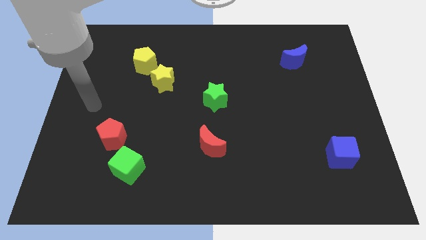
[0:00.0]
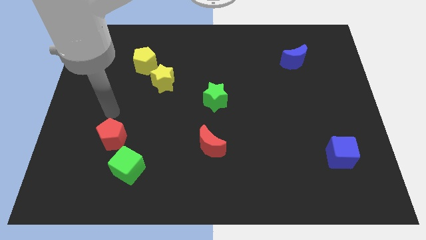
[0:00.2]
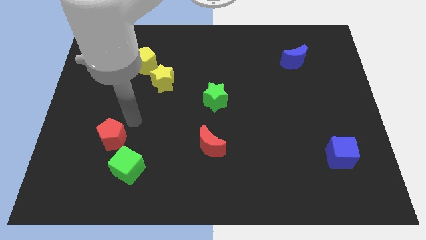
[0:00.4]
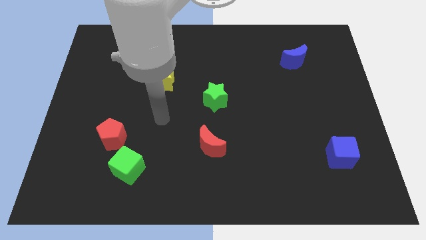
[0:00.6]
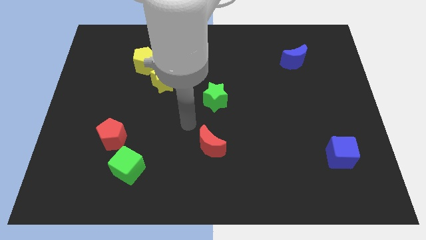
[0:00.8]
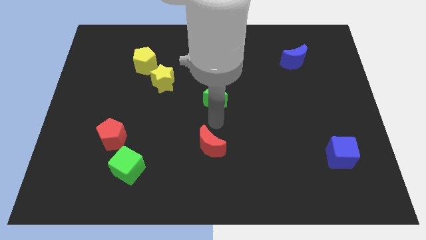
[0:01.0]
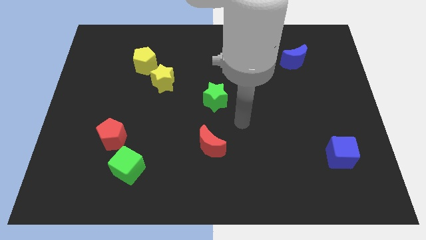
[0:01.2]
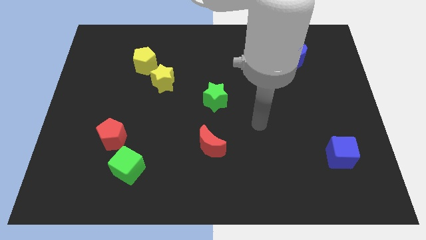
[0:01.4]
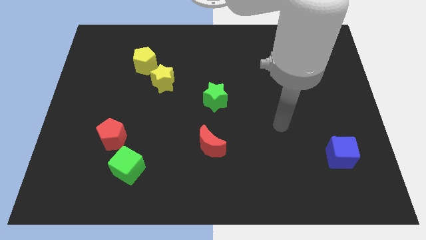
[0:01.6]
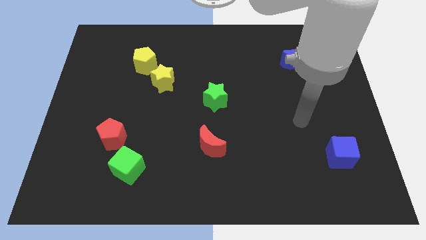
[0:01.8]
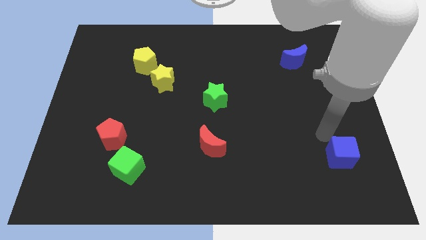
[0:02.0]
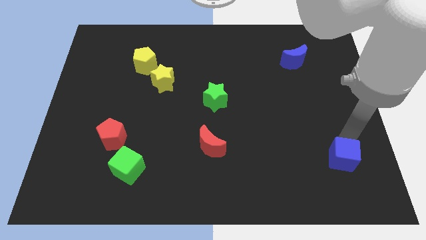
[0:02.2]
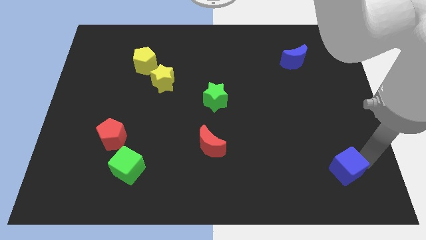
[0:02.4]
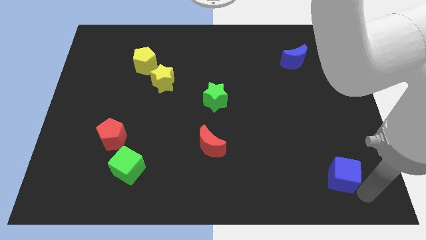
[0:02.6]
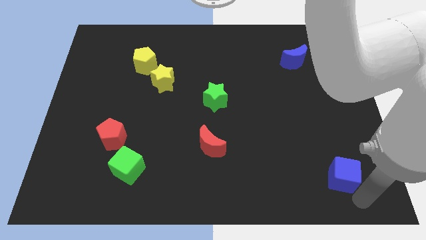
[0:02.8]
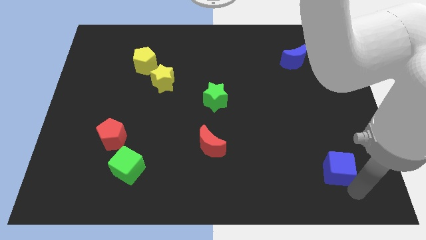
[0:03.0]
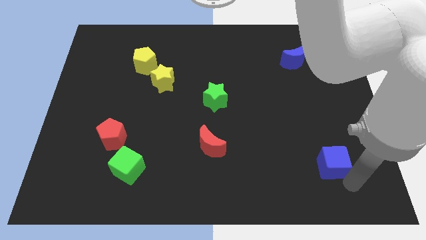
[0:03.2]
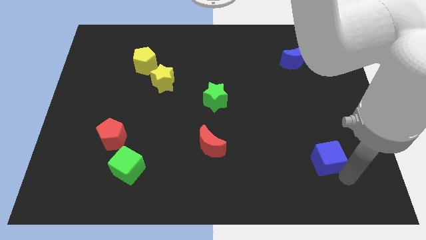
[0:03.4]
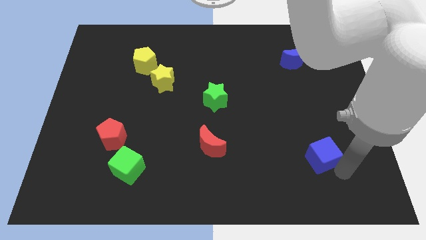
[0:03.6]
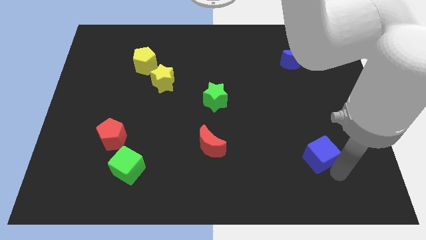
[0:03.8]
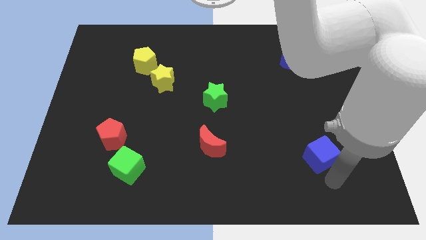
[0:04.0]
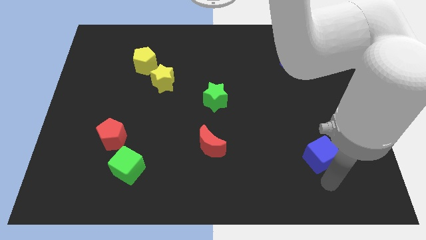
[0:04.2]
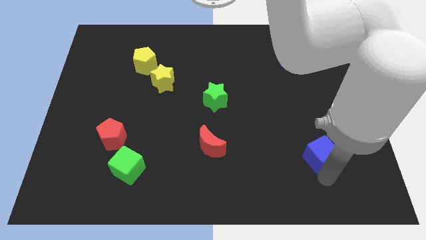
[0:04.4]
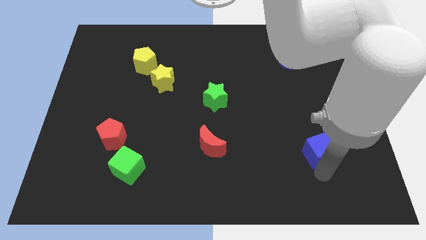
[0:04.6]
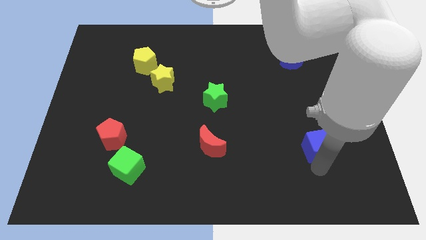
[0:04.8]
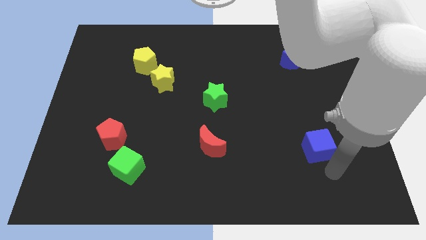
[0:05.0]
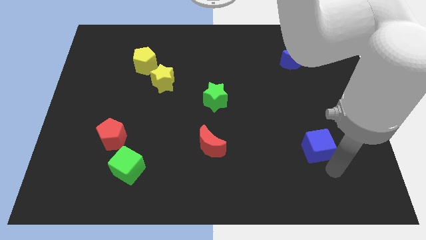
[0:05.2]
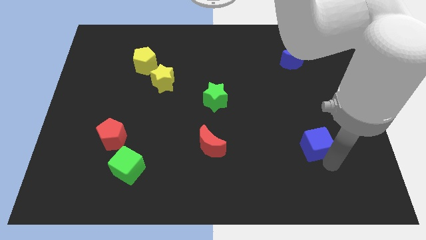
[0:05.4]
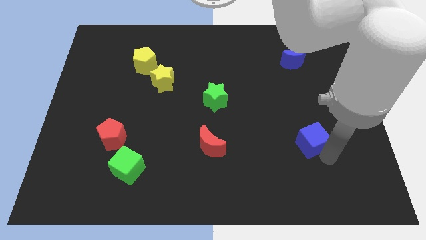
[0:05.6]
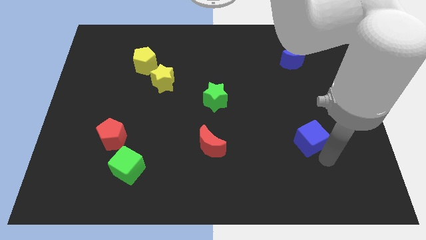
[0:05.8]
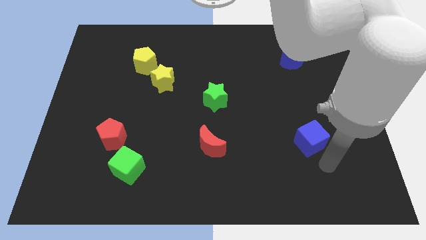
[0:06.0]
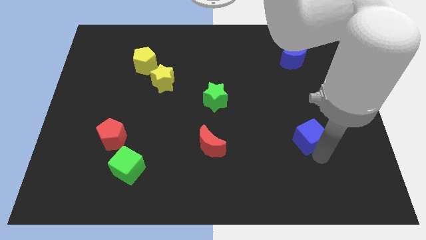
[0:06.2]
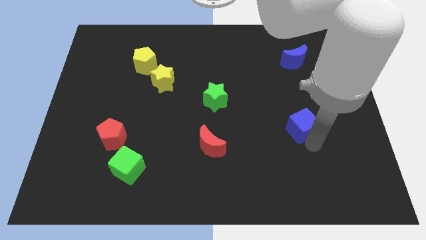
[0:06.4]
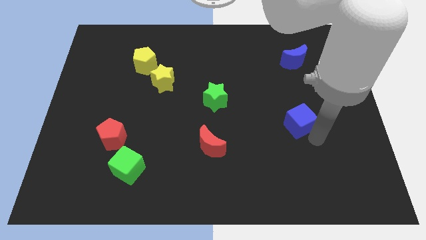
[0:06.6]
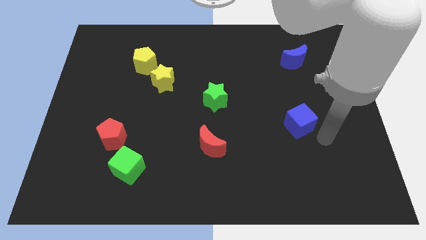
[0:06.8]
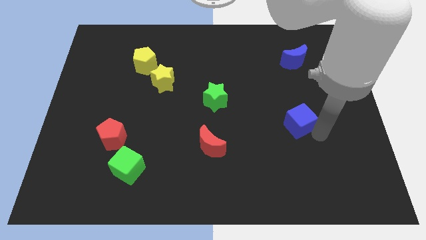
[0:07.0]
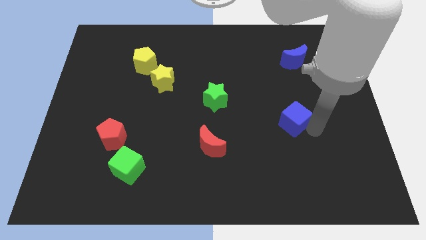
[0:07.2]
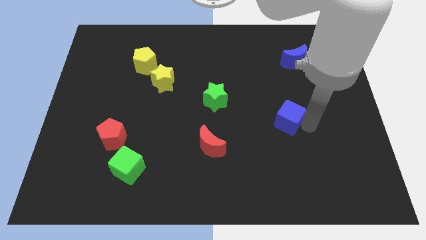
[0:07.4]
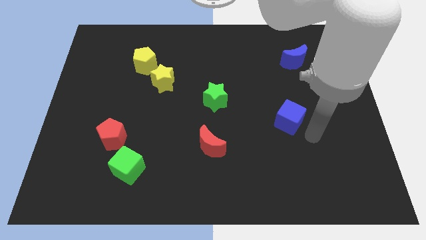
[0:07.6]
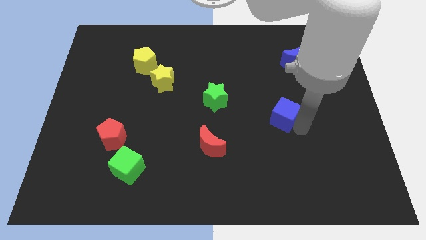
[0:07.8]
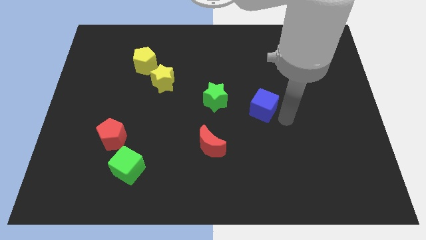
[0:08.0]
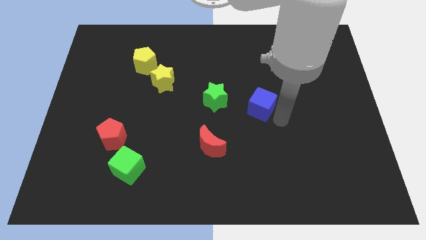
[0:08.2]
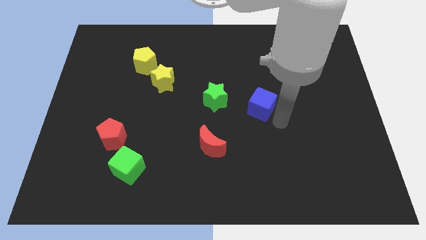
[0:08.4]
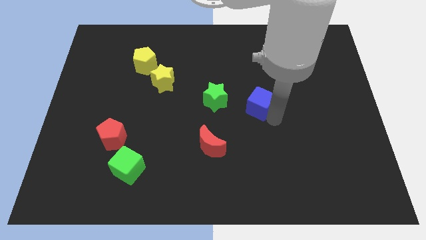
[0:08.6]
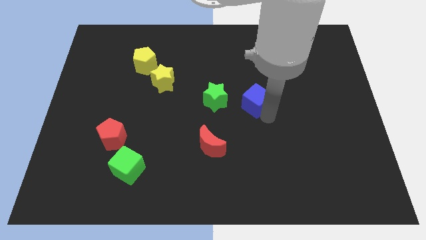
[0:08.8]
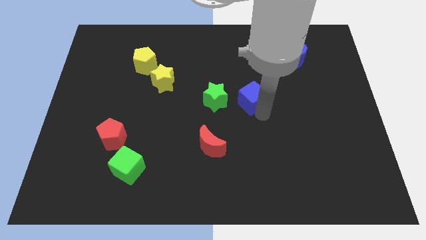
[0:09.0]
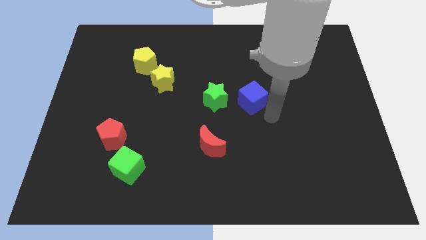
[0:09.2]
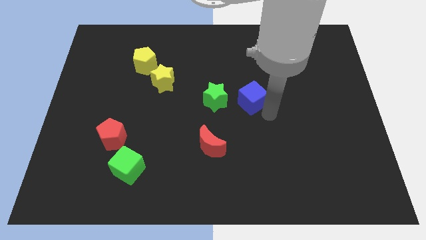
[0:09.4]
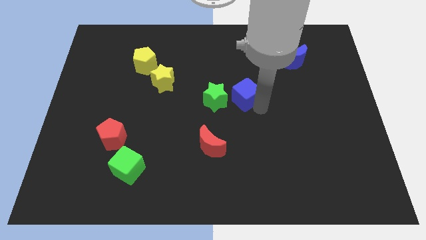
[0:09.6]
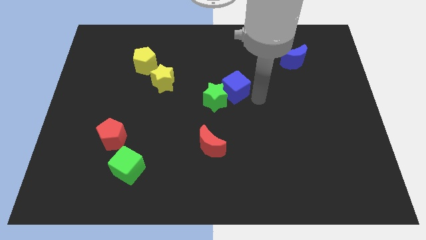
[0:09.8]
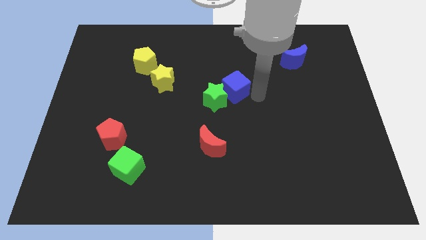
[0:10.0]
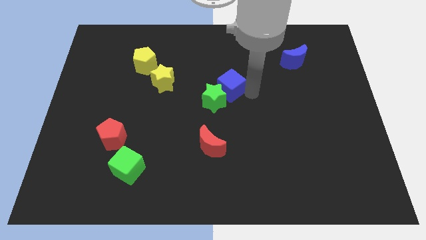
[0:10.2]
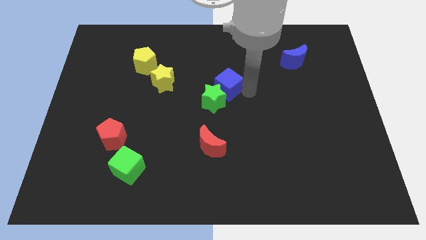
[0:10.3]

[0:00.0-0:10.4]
move the blue cube right of the yellow star

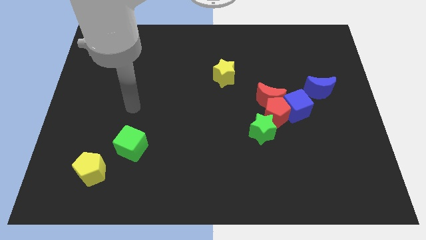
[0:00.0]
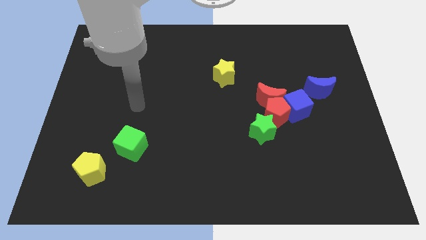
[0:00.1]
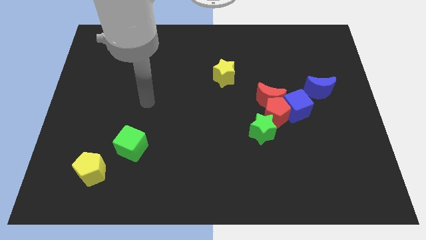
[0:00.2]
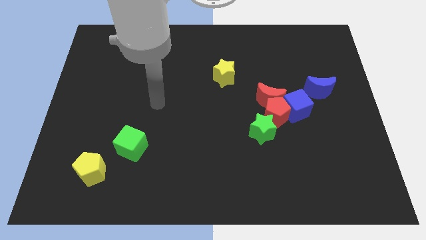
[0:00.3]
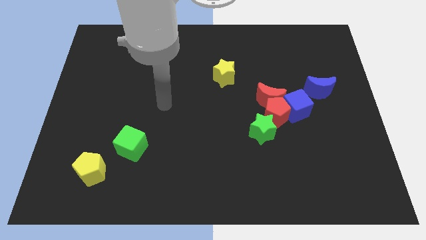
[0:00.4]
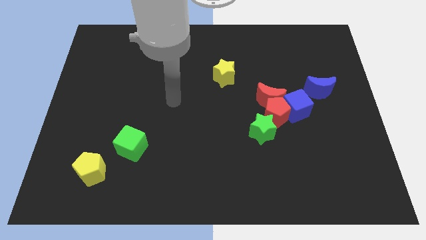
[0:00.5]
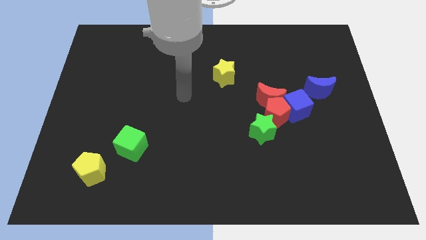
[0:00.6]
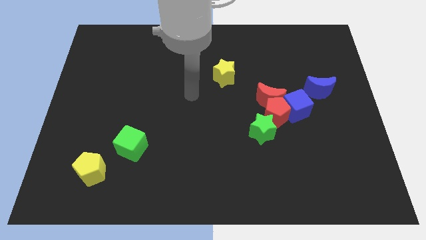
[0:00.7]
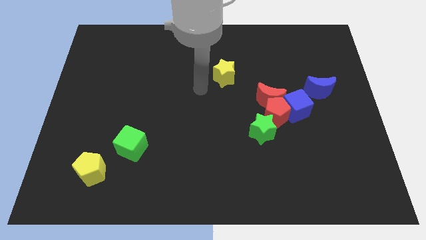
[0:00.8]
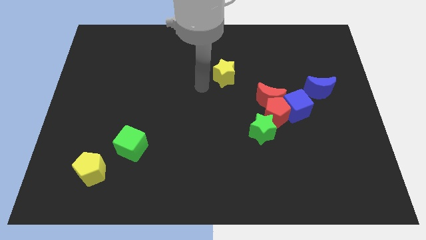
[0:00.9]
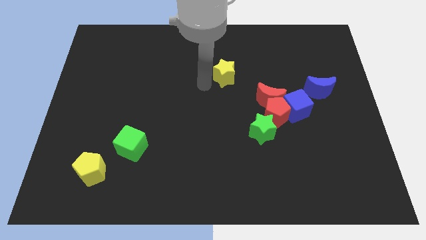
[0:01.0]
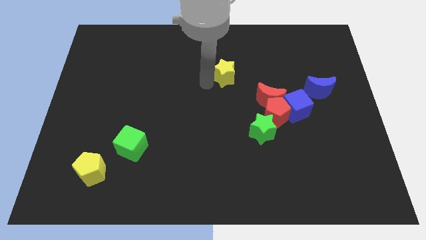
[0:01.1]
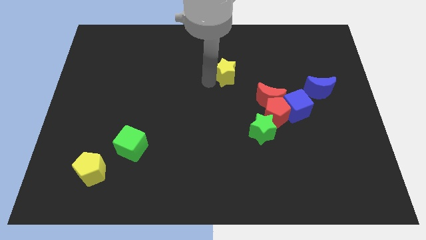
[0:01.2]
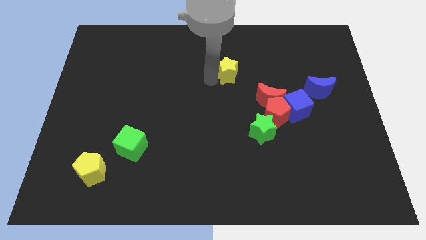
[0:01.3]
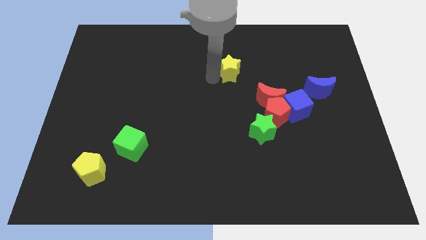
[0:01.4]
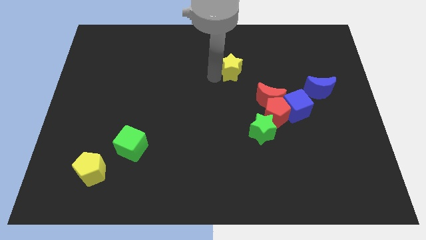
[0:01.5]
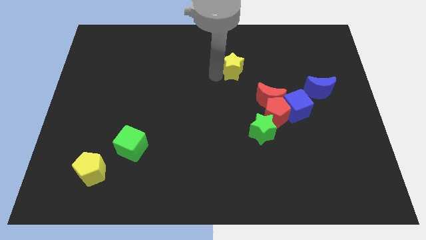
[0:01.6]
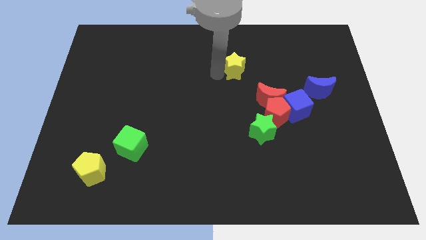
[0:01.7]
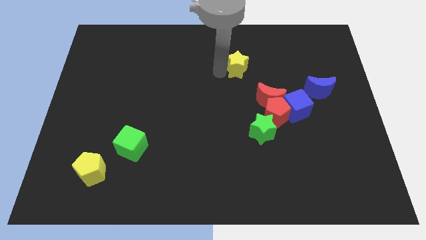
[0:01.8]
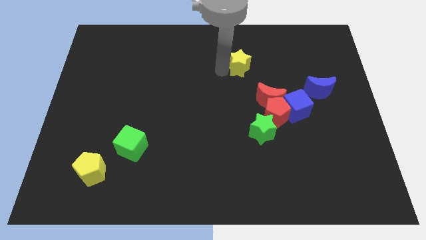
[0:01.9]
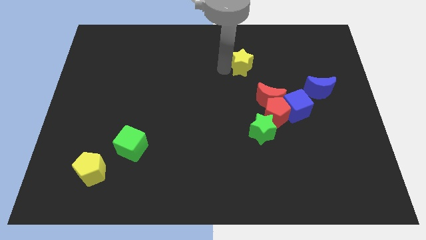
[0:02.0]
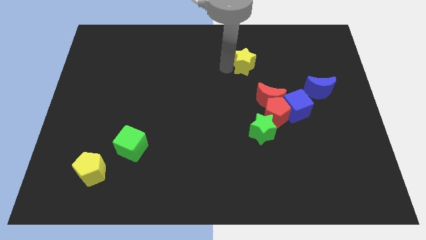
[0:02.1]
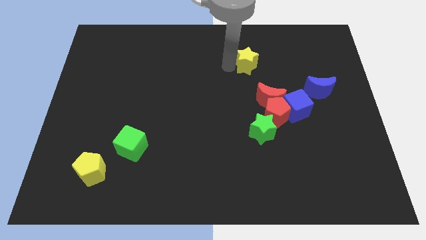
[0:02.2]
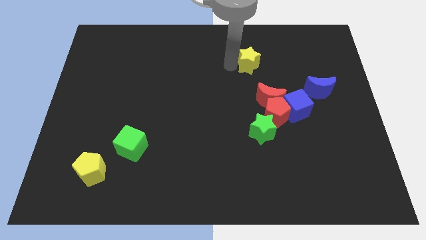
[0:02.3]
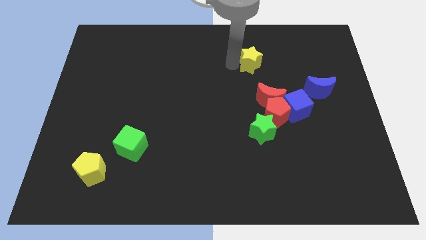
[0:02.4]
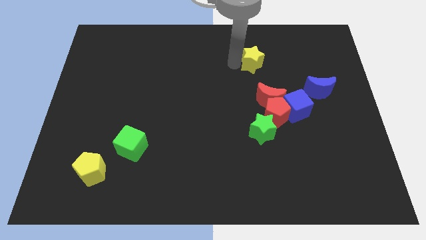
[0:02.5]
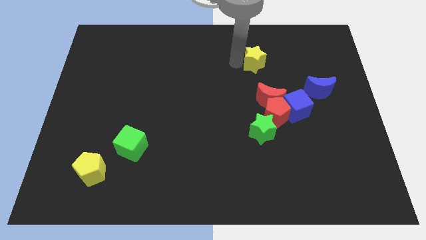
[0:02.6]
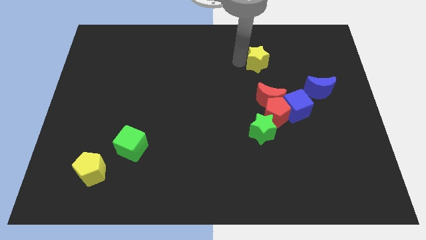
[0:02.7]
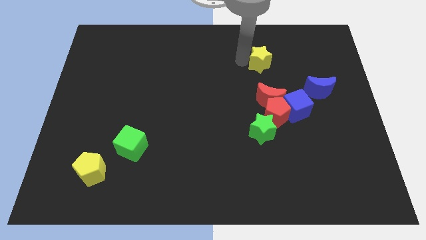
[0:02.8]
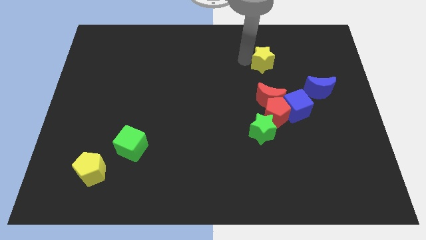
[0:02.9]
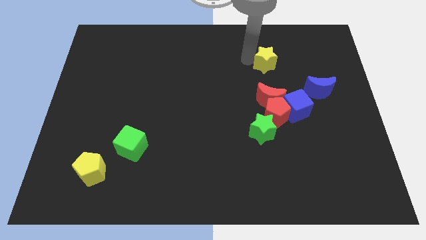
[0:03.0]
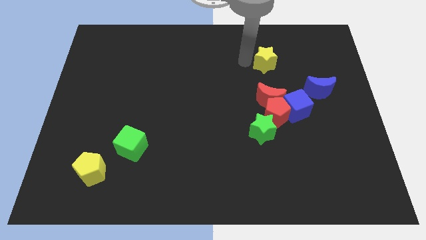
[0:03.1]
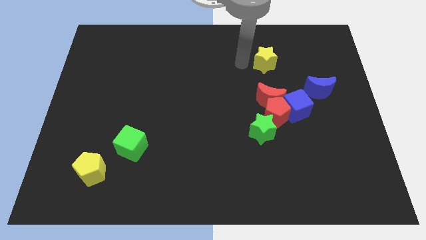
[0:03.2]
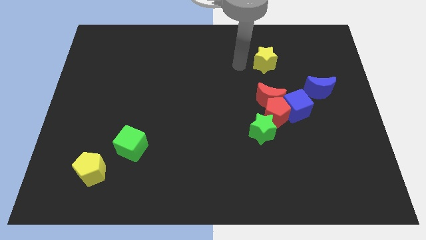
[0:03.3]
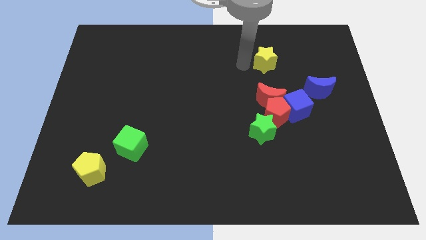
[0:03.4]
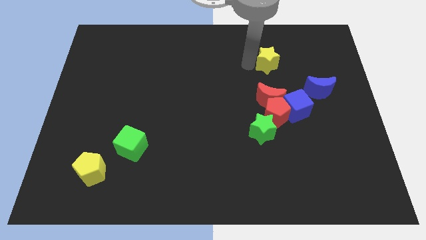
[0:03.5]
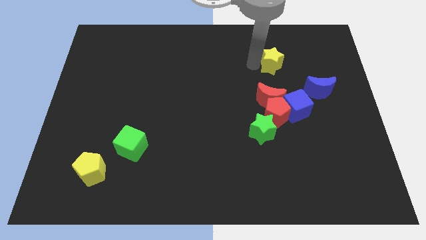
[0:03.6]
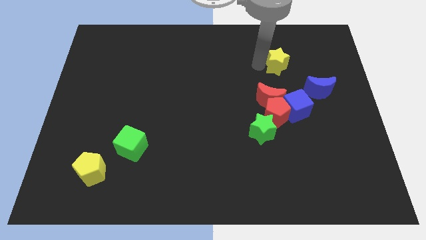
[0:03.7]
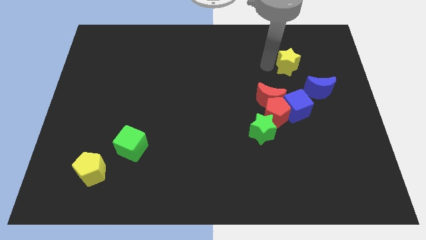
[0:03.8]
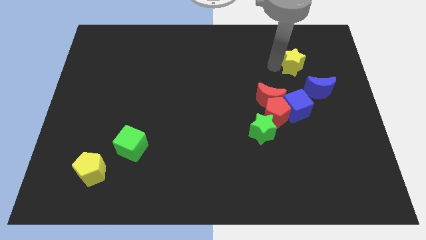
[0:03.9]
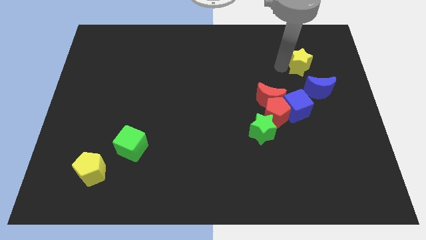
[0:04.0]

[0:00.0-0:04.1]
move the yellow star above the blue moon
